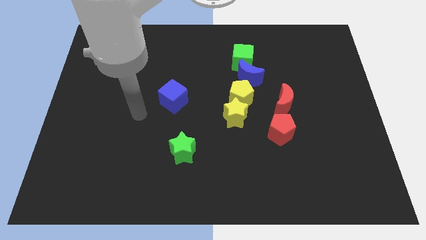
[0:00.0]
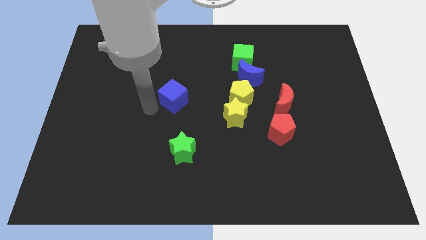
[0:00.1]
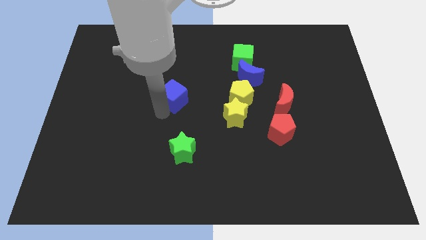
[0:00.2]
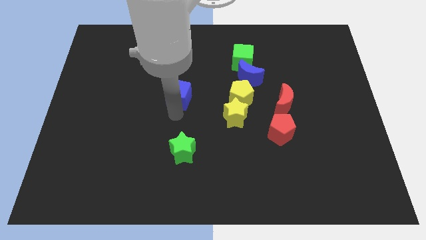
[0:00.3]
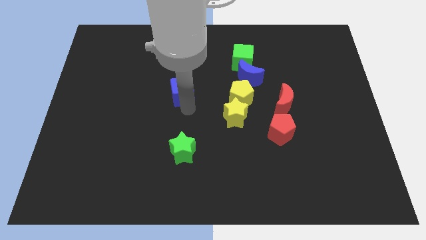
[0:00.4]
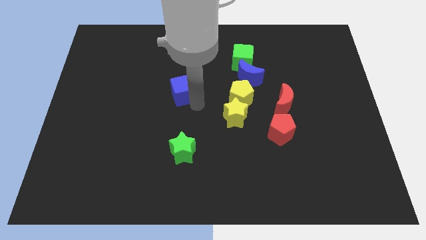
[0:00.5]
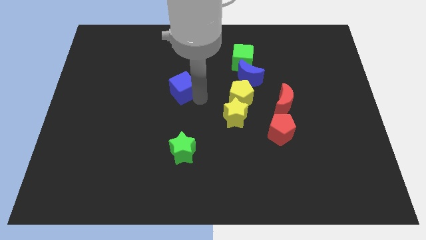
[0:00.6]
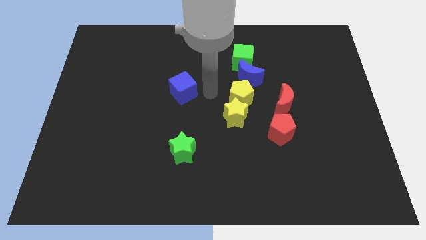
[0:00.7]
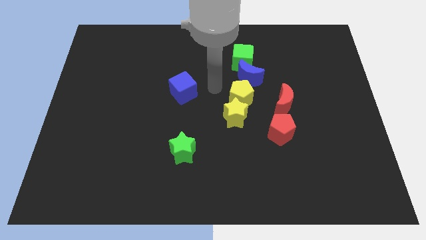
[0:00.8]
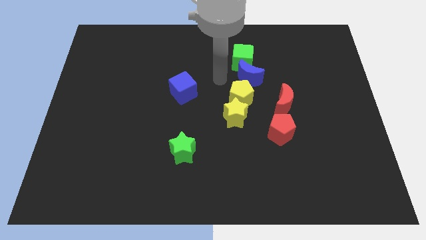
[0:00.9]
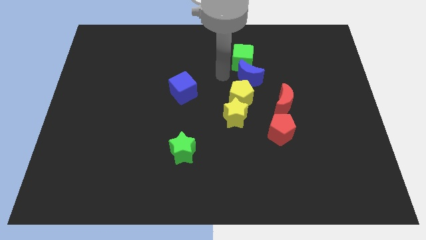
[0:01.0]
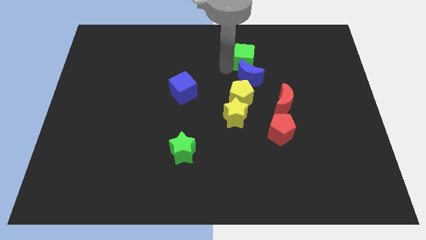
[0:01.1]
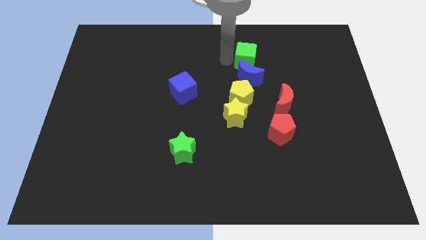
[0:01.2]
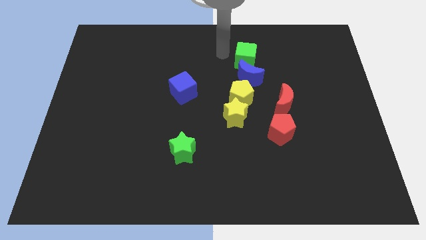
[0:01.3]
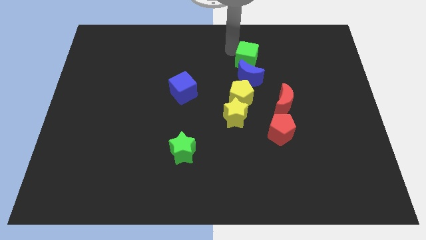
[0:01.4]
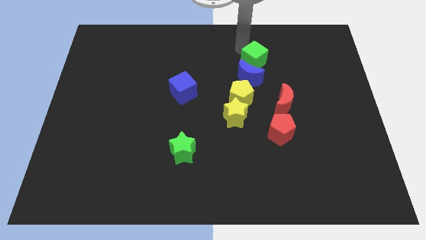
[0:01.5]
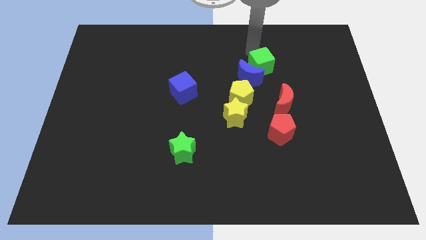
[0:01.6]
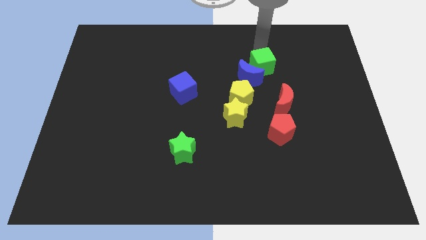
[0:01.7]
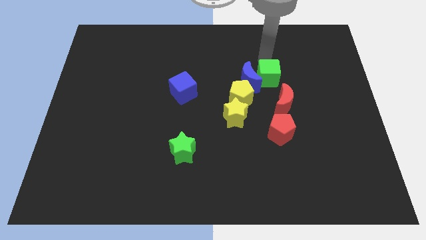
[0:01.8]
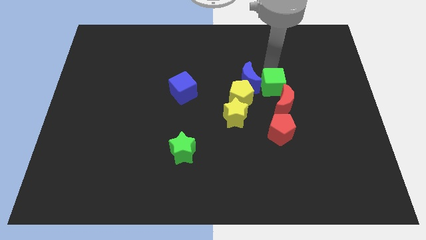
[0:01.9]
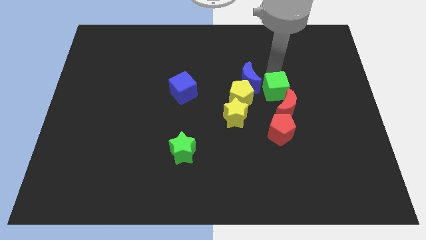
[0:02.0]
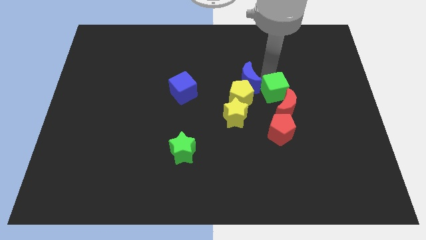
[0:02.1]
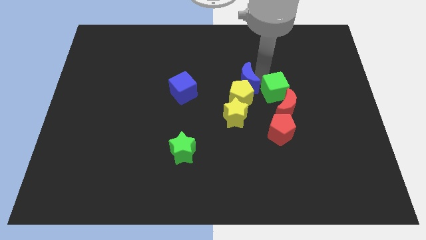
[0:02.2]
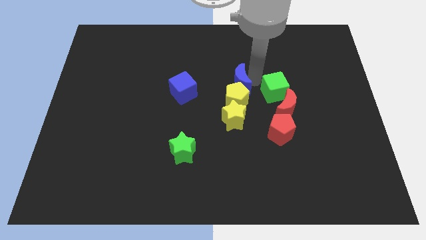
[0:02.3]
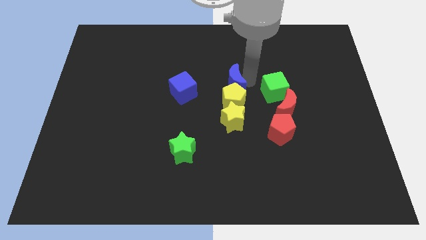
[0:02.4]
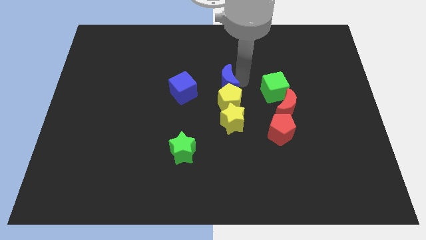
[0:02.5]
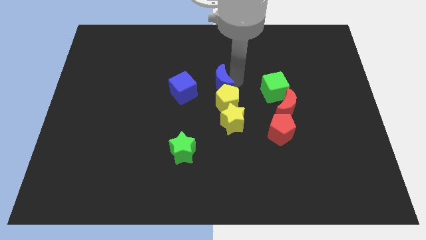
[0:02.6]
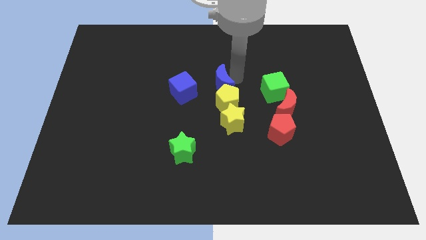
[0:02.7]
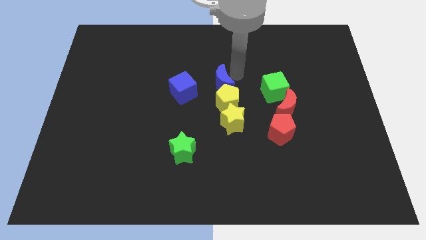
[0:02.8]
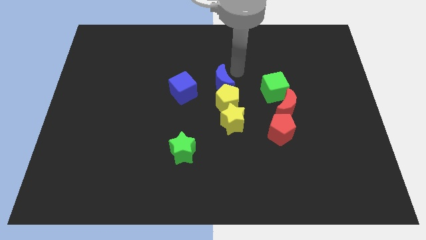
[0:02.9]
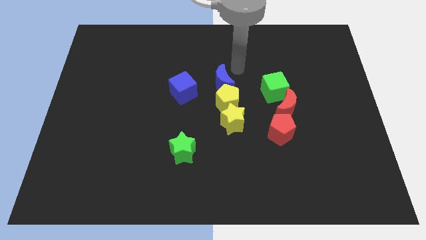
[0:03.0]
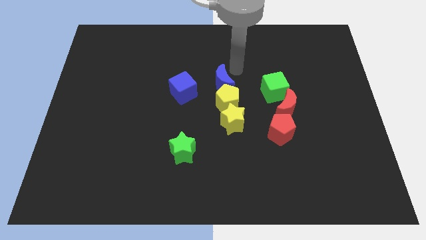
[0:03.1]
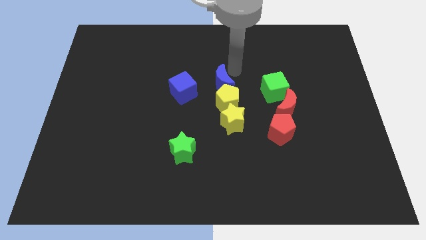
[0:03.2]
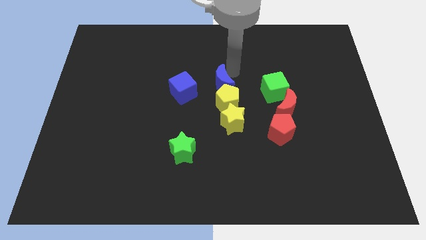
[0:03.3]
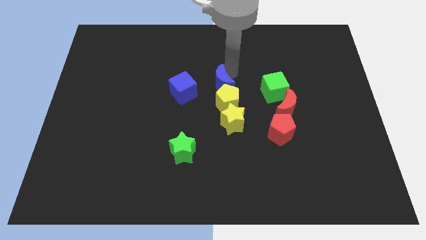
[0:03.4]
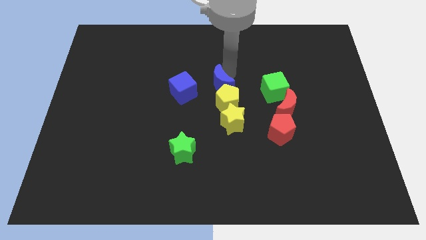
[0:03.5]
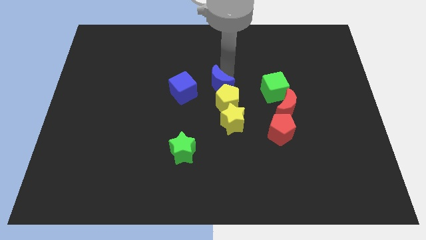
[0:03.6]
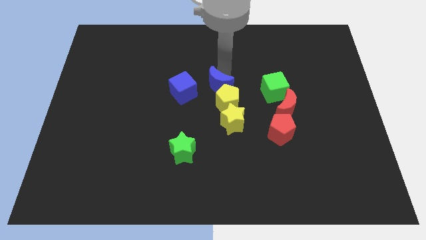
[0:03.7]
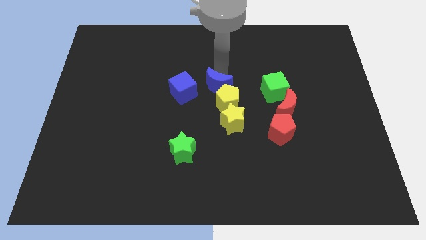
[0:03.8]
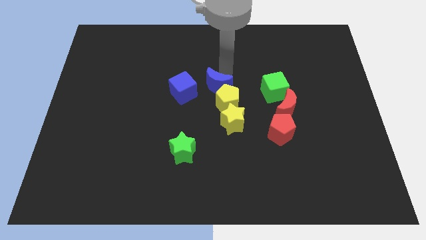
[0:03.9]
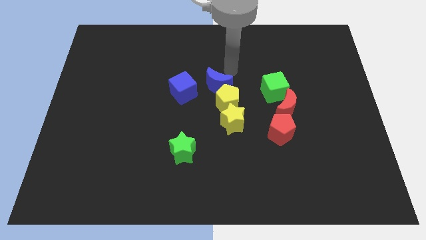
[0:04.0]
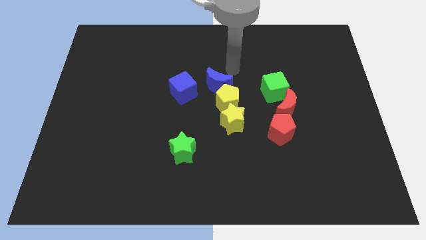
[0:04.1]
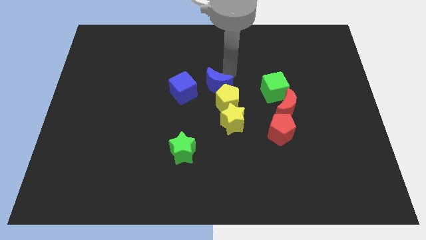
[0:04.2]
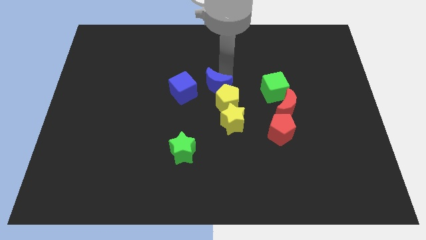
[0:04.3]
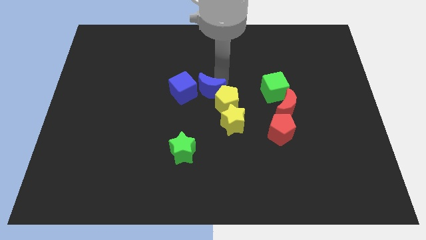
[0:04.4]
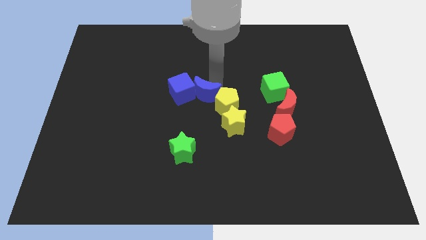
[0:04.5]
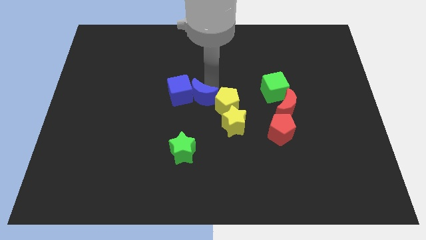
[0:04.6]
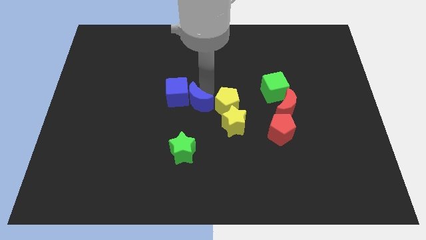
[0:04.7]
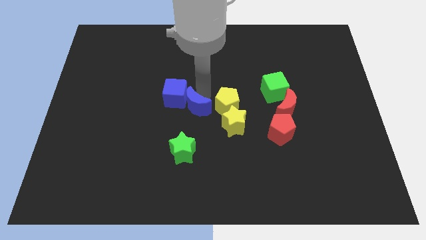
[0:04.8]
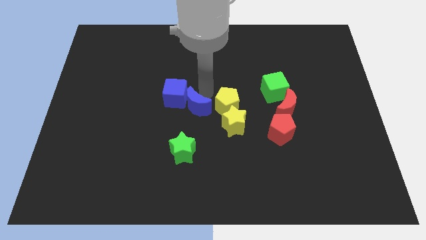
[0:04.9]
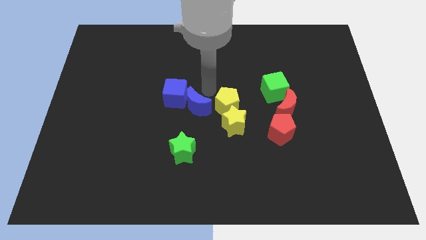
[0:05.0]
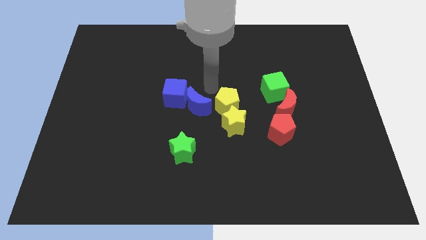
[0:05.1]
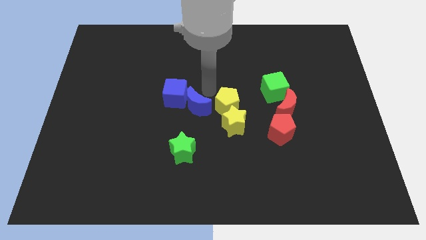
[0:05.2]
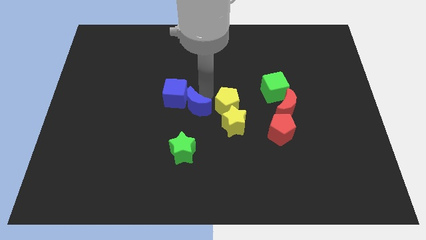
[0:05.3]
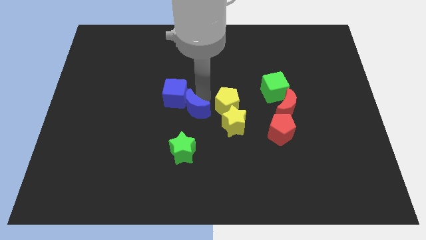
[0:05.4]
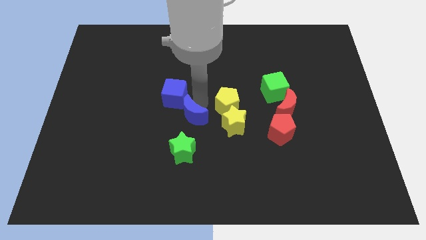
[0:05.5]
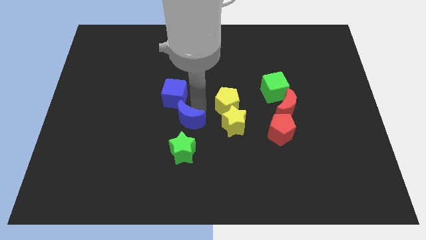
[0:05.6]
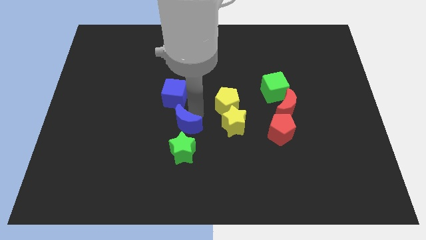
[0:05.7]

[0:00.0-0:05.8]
slide the blue moon down and then to the left

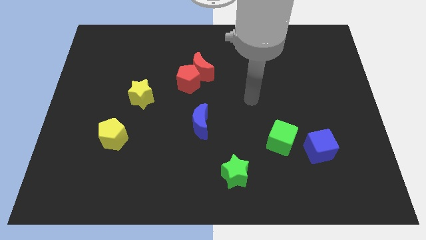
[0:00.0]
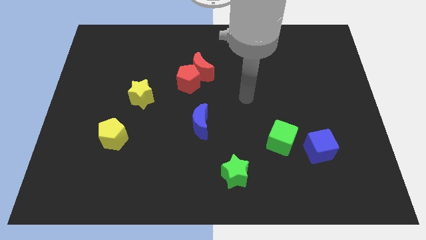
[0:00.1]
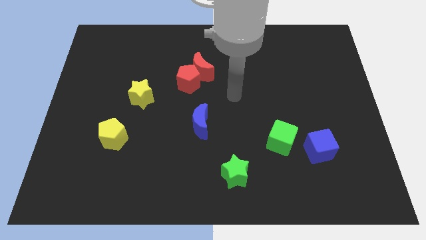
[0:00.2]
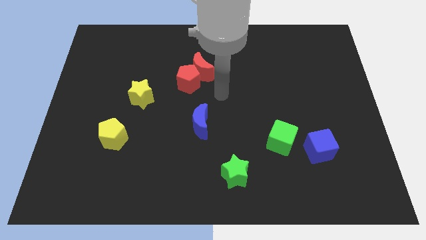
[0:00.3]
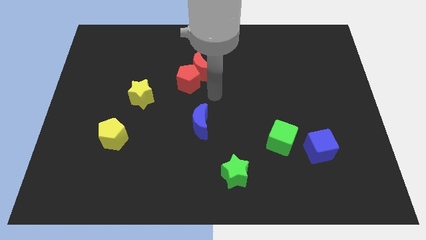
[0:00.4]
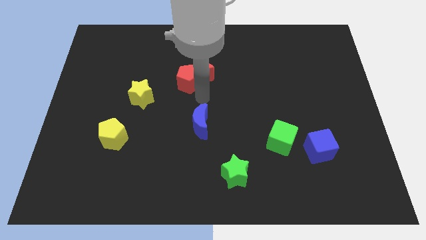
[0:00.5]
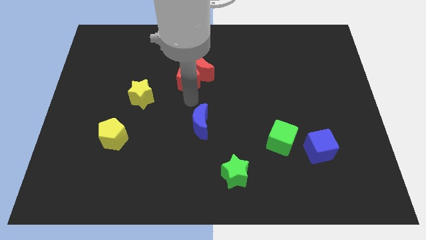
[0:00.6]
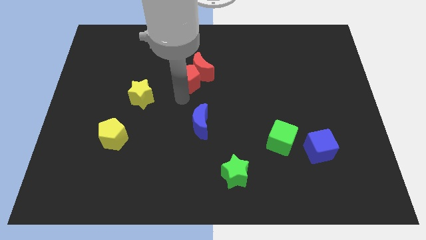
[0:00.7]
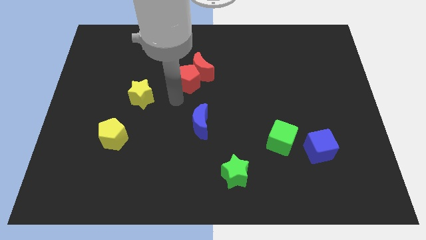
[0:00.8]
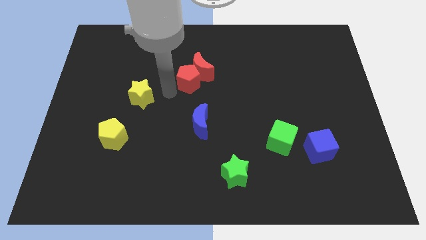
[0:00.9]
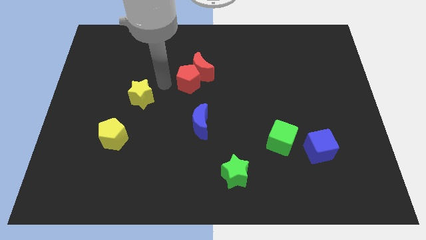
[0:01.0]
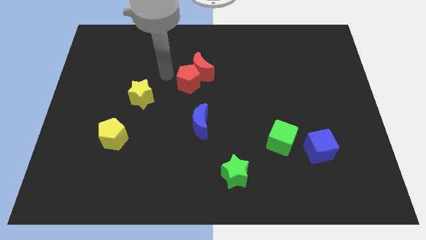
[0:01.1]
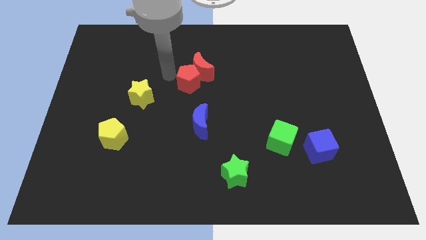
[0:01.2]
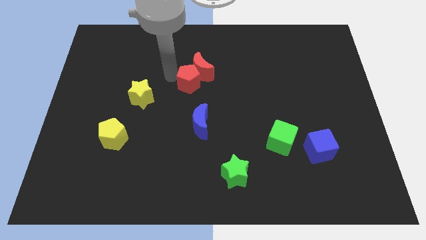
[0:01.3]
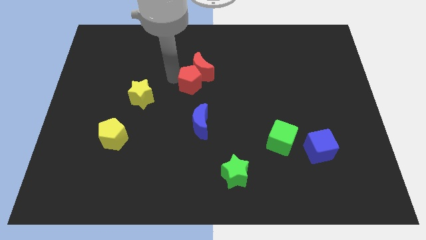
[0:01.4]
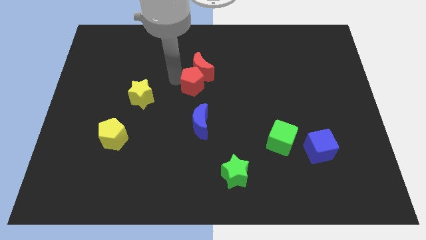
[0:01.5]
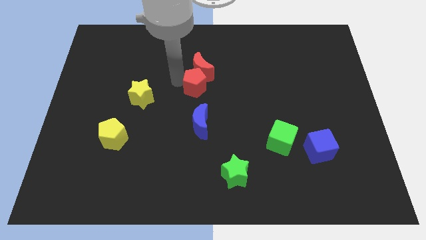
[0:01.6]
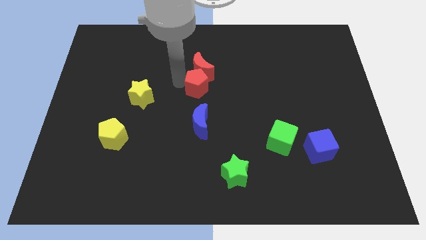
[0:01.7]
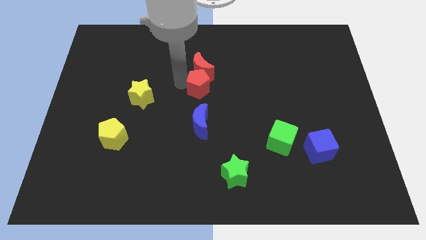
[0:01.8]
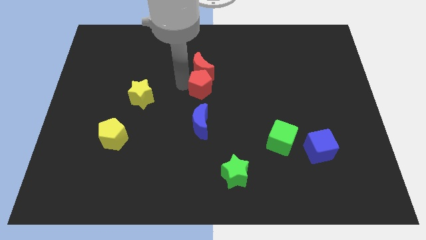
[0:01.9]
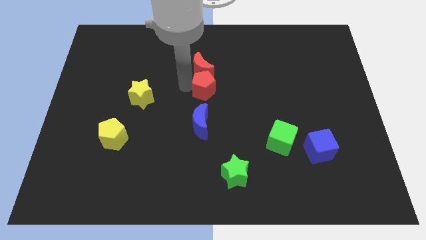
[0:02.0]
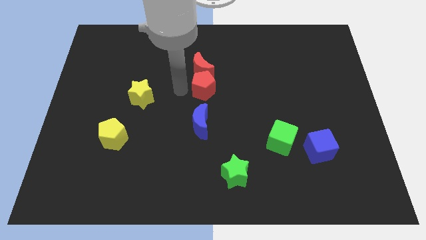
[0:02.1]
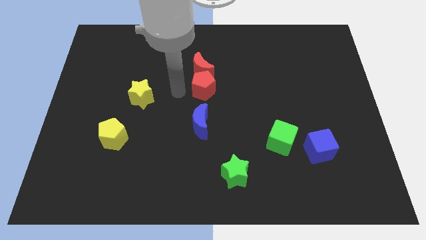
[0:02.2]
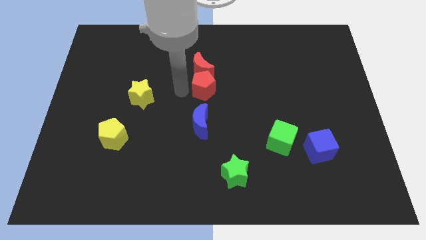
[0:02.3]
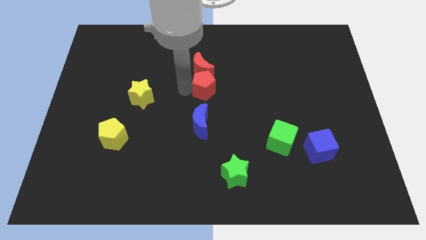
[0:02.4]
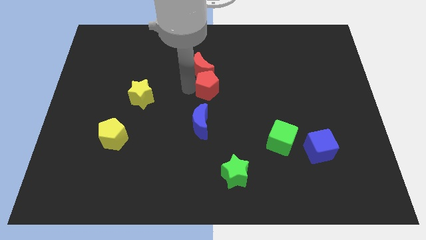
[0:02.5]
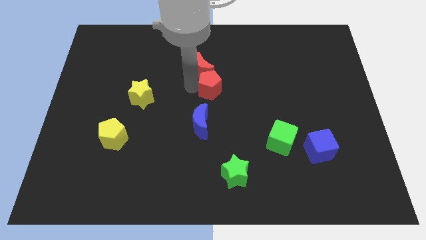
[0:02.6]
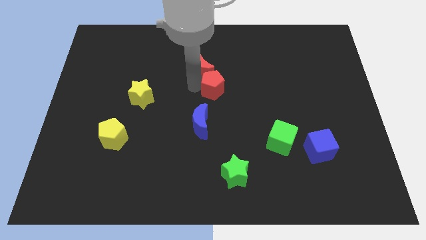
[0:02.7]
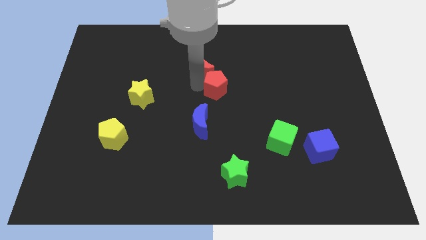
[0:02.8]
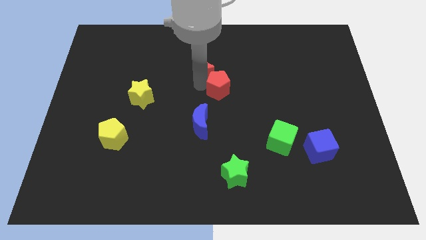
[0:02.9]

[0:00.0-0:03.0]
push the red pentagon right somewhat
